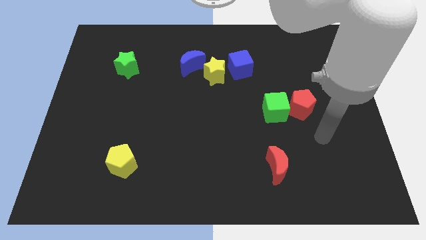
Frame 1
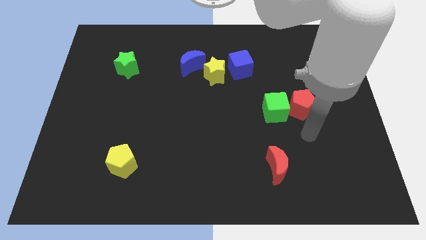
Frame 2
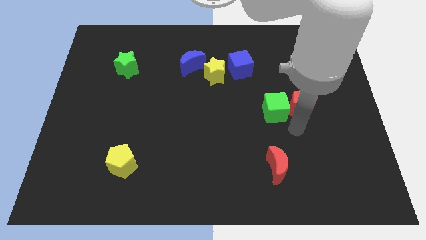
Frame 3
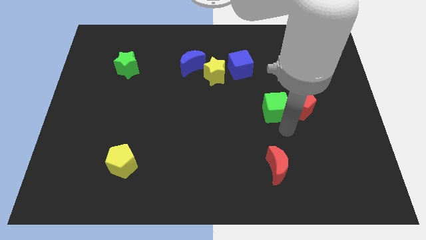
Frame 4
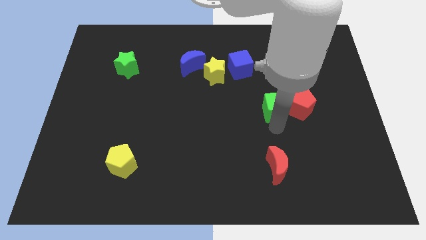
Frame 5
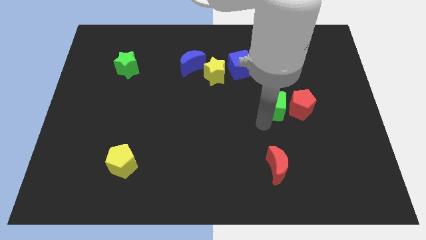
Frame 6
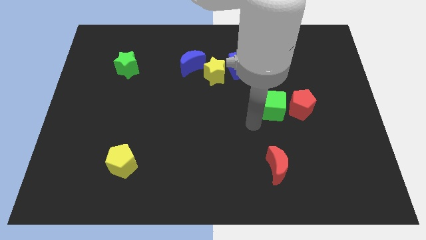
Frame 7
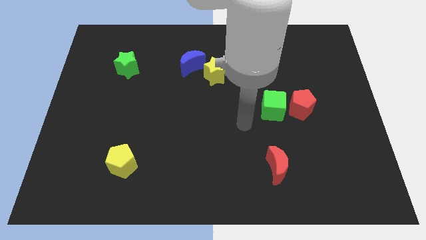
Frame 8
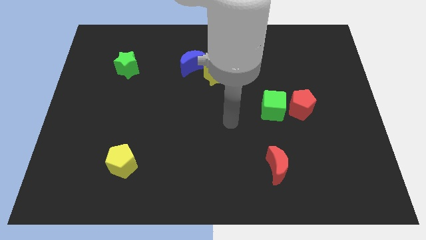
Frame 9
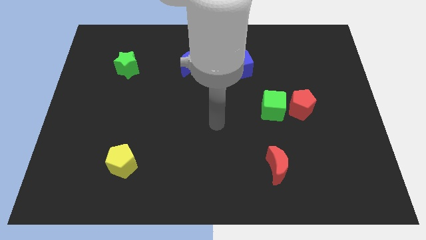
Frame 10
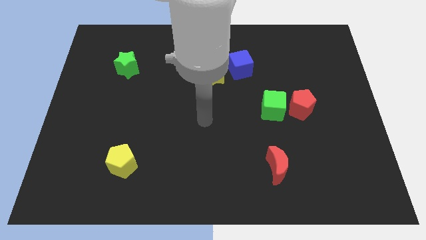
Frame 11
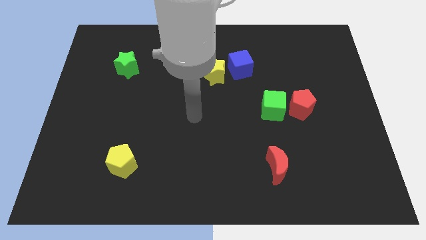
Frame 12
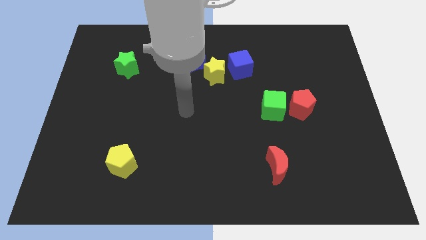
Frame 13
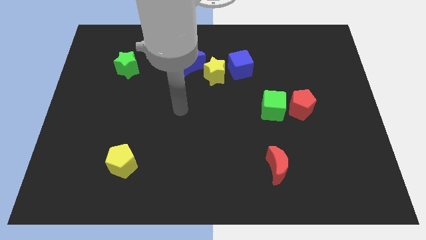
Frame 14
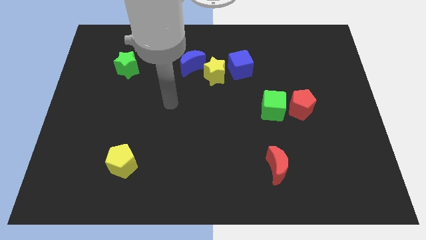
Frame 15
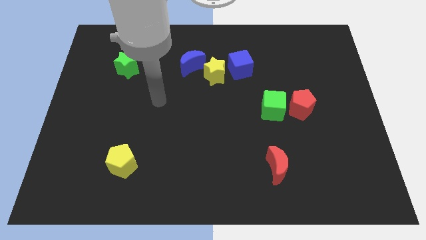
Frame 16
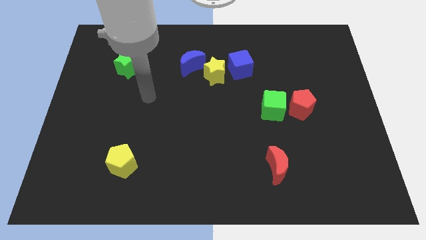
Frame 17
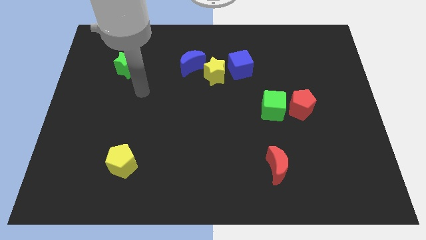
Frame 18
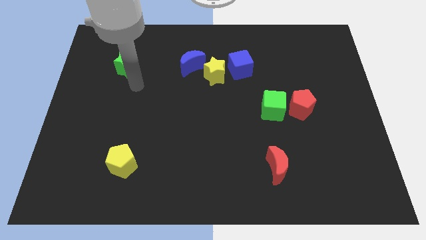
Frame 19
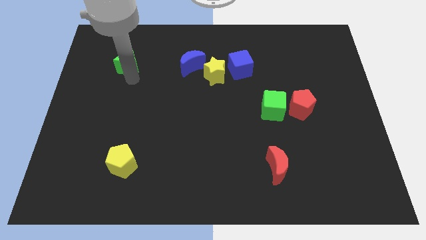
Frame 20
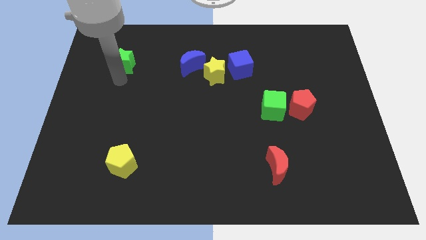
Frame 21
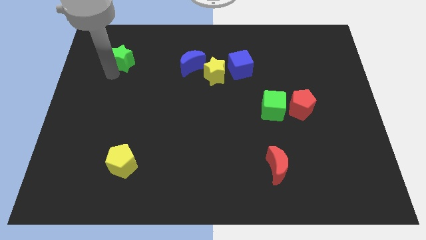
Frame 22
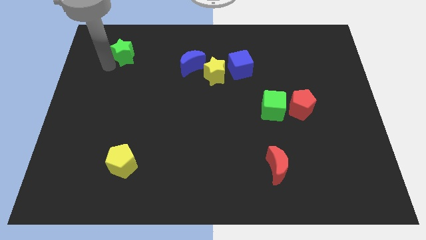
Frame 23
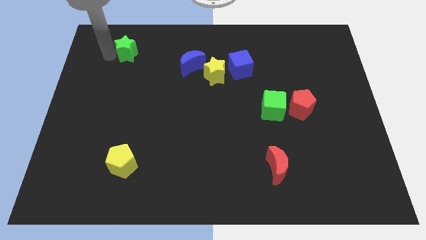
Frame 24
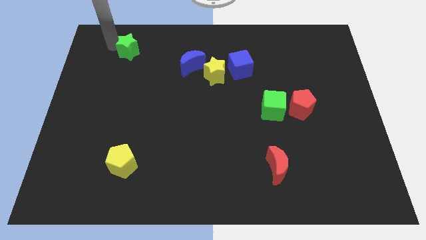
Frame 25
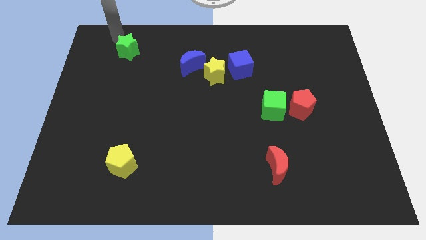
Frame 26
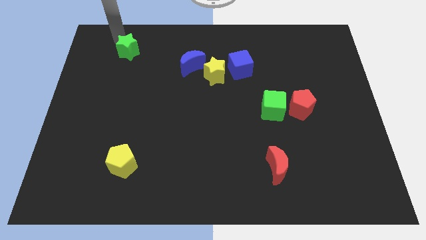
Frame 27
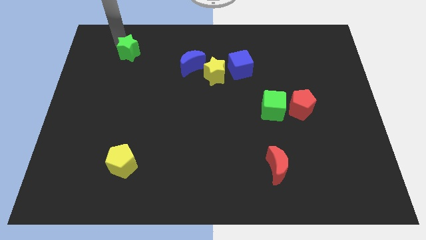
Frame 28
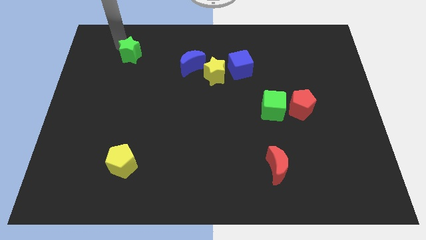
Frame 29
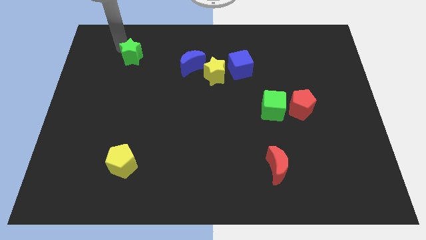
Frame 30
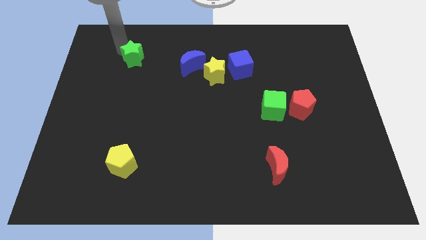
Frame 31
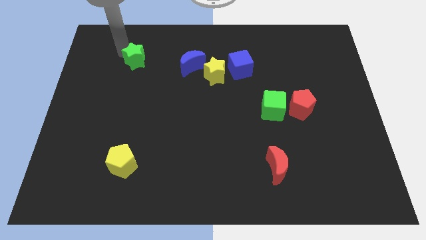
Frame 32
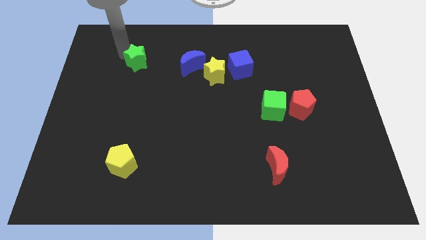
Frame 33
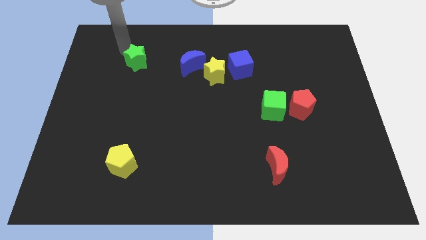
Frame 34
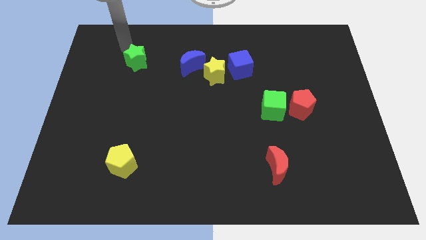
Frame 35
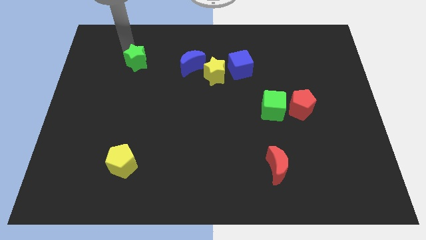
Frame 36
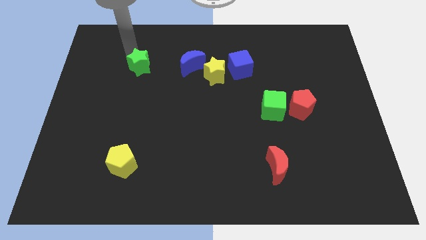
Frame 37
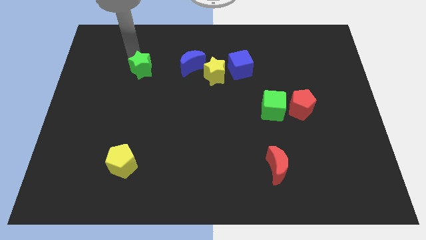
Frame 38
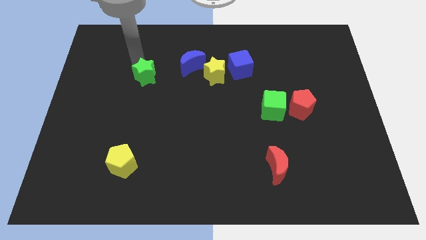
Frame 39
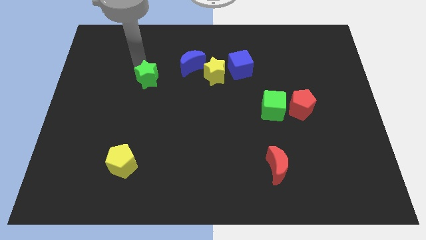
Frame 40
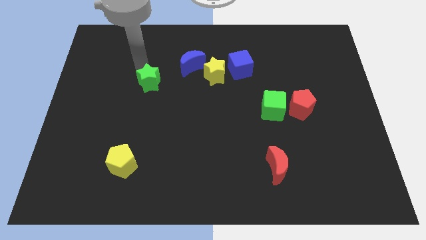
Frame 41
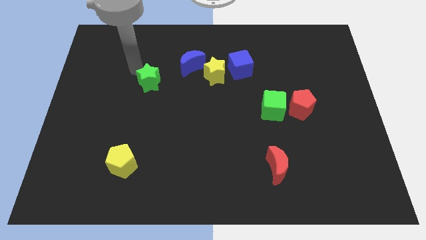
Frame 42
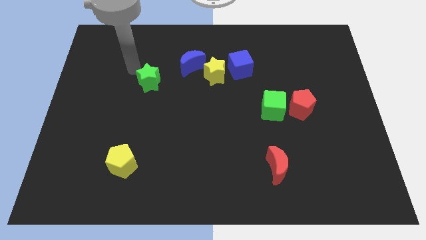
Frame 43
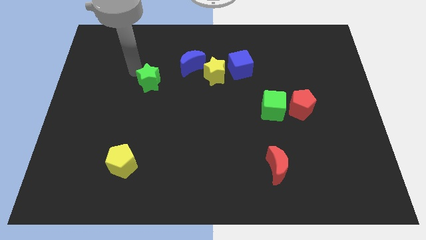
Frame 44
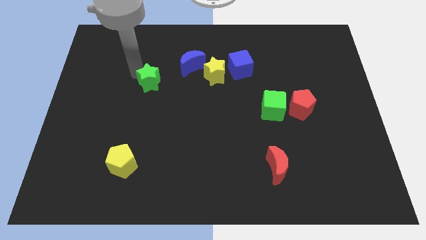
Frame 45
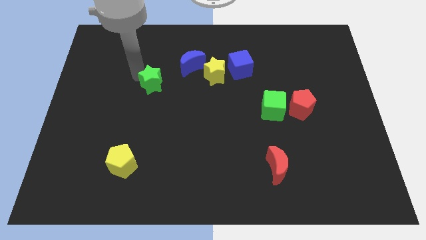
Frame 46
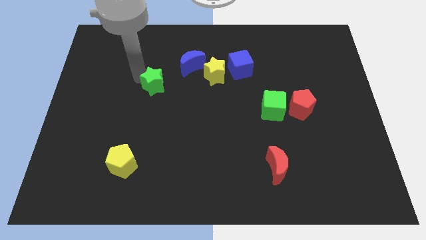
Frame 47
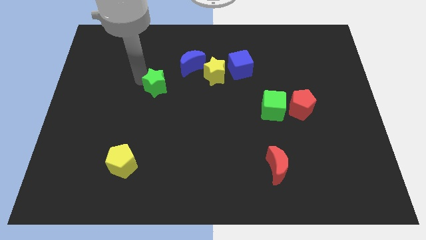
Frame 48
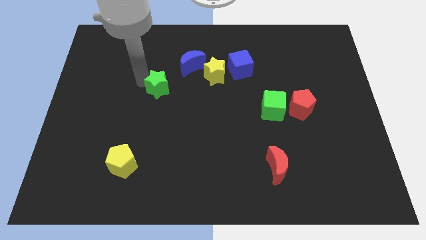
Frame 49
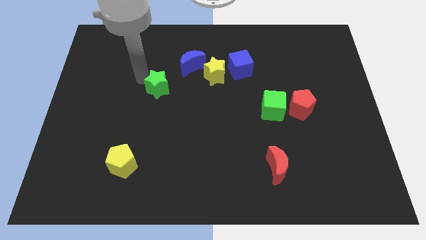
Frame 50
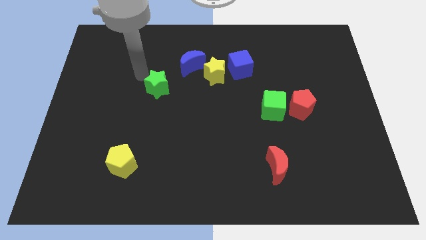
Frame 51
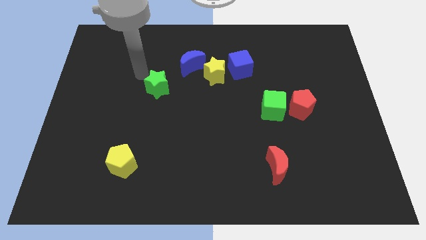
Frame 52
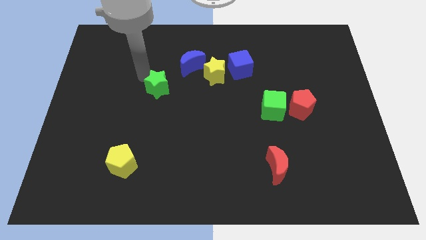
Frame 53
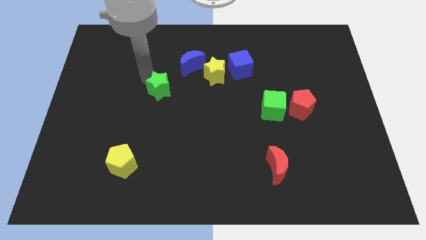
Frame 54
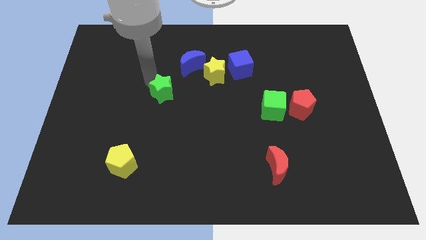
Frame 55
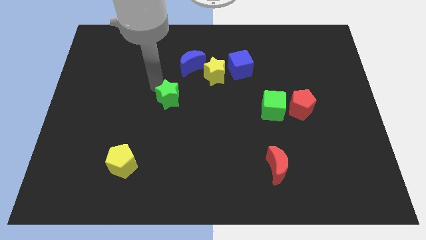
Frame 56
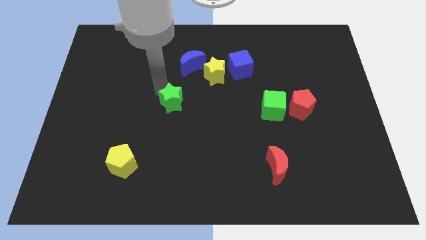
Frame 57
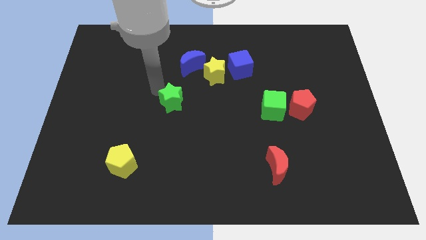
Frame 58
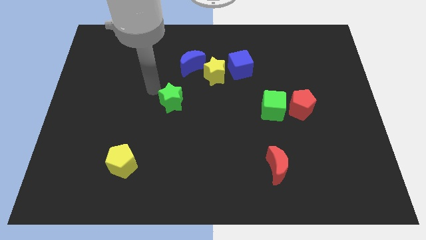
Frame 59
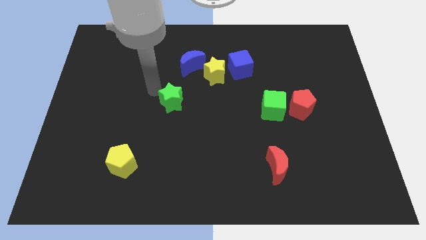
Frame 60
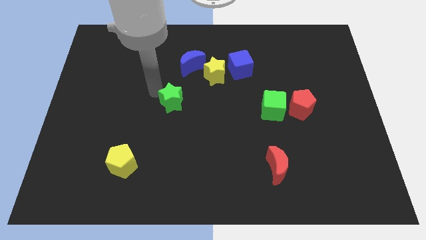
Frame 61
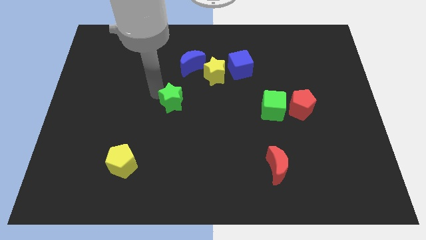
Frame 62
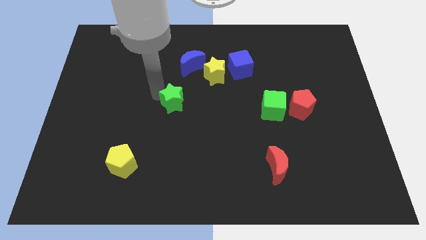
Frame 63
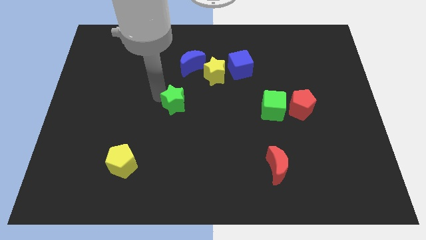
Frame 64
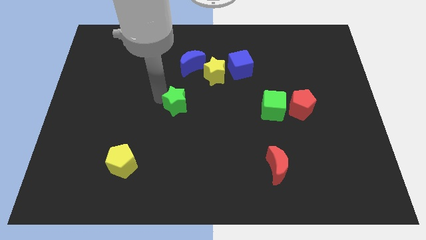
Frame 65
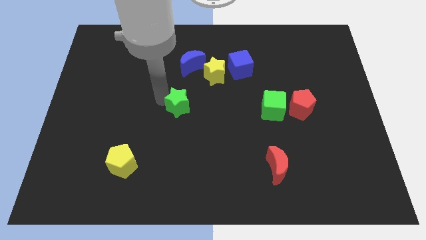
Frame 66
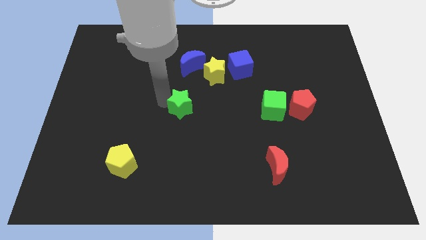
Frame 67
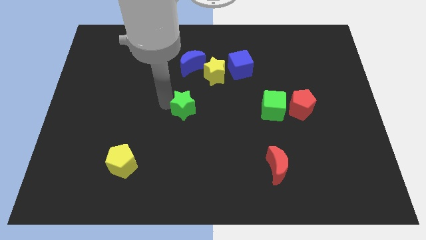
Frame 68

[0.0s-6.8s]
move the green star downwards and then to the right

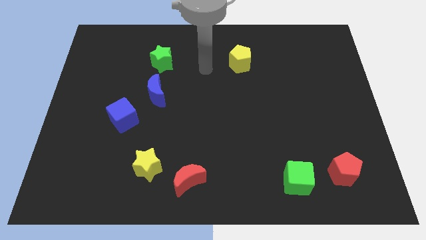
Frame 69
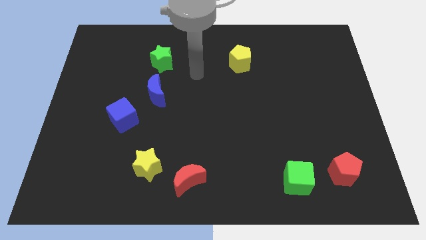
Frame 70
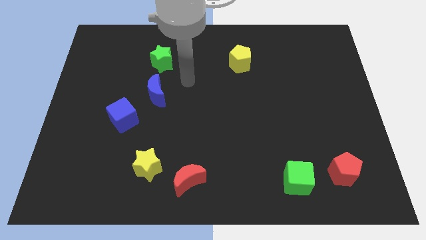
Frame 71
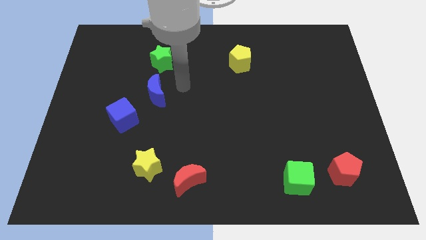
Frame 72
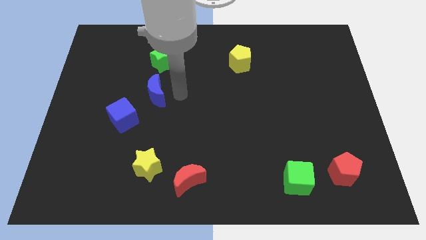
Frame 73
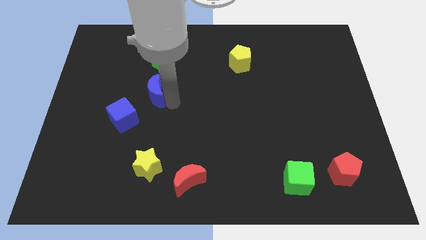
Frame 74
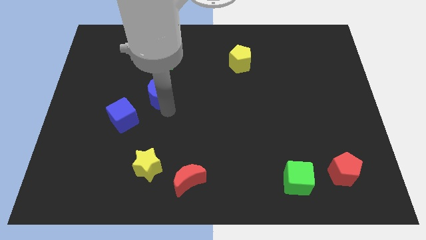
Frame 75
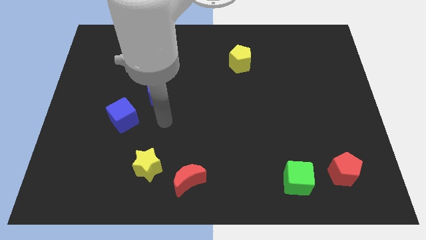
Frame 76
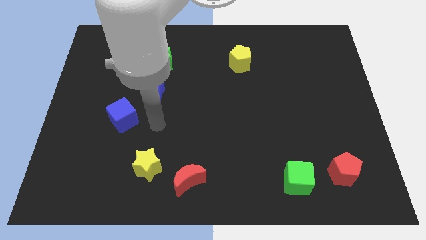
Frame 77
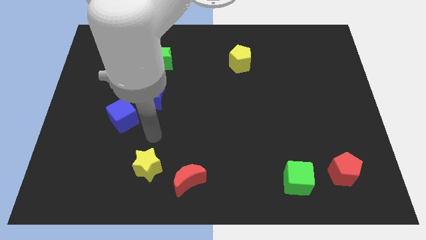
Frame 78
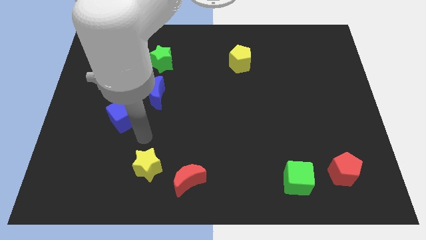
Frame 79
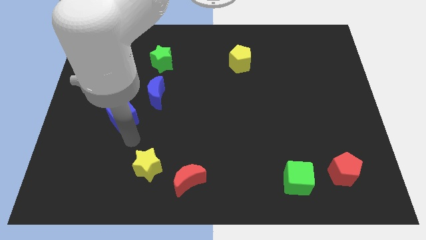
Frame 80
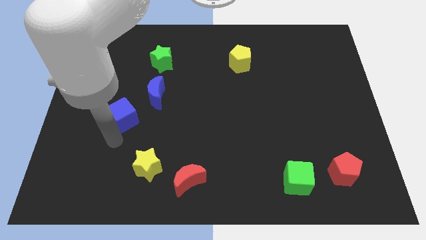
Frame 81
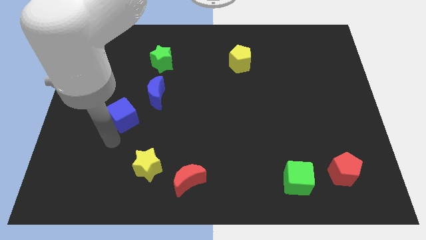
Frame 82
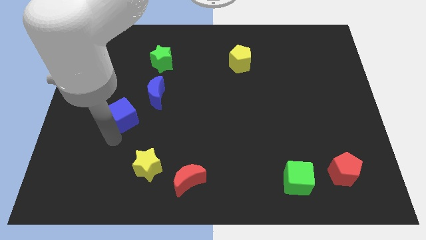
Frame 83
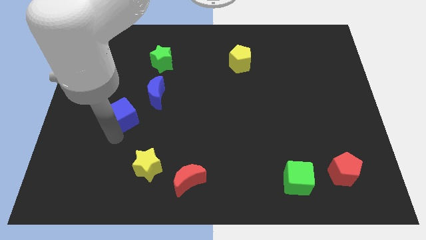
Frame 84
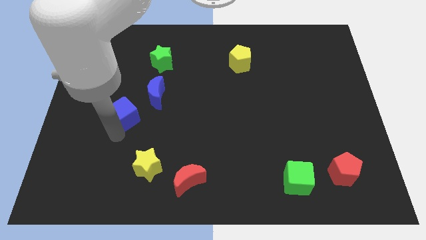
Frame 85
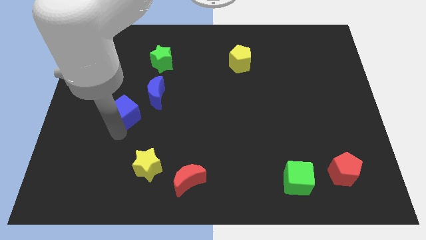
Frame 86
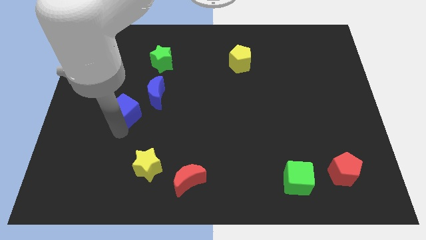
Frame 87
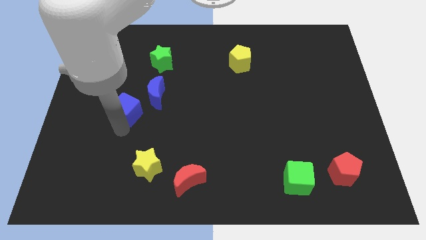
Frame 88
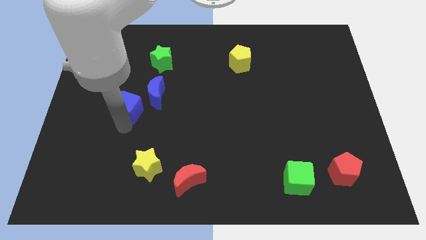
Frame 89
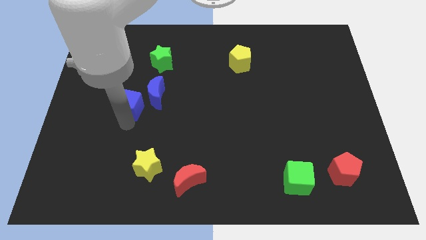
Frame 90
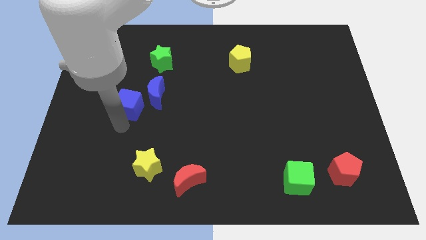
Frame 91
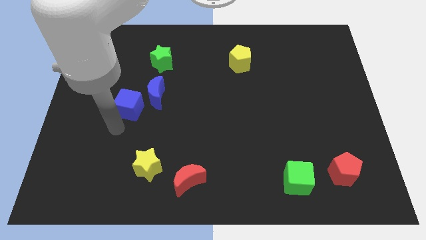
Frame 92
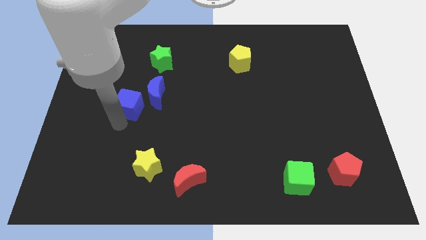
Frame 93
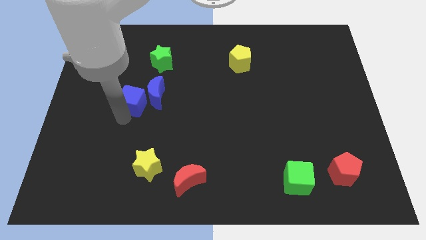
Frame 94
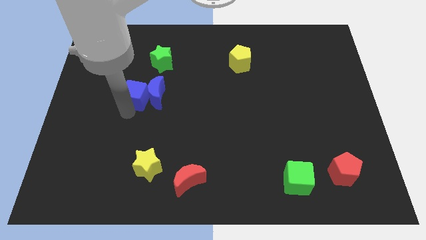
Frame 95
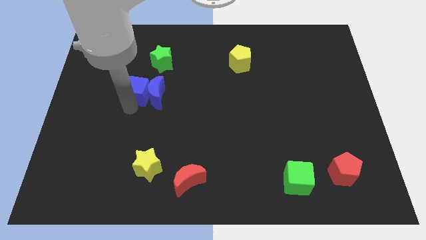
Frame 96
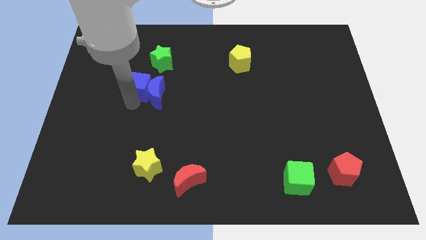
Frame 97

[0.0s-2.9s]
slide the blue cube a bit diagonally upwards and to the right
